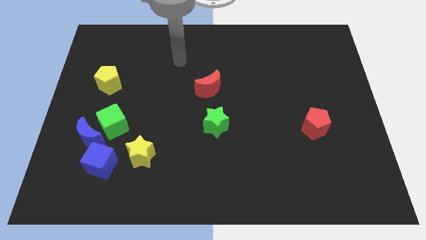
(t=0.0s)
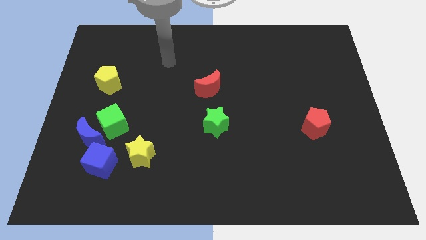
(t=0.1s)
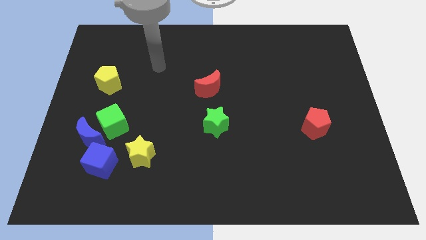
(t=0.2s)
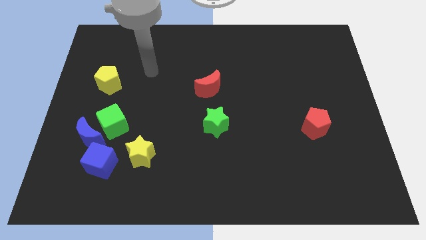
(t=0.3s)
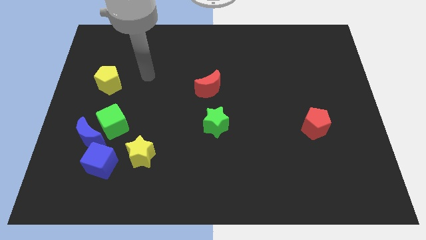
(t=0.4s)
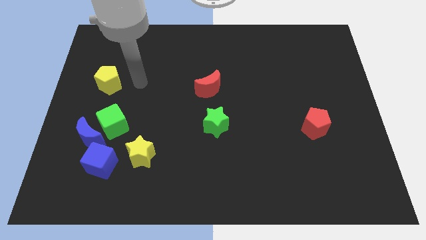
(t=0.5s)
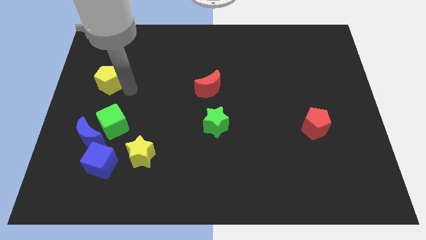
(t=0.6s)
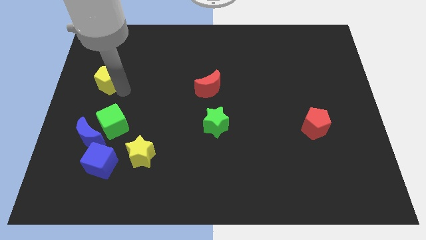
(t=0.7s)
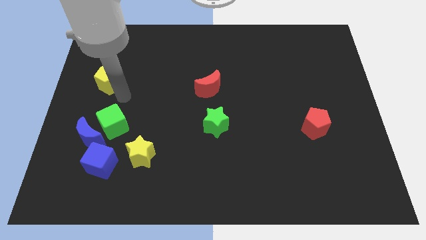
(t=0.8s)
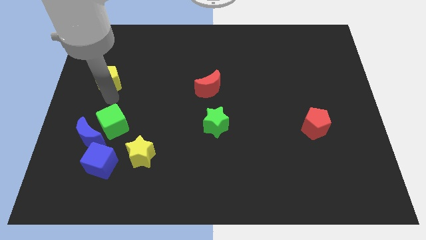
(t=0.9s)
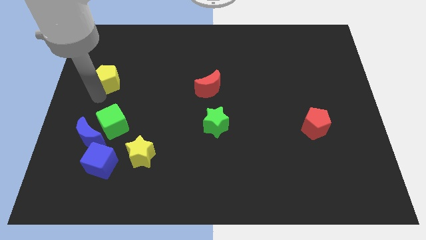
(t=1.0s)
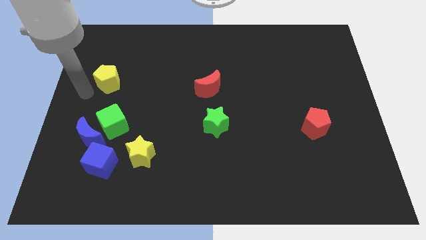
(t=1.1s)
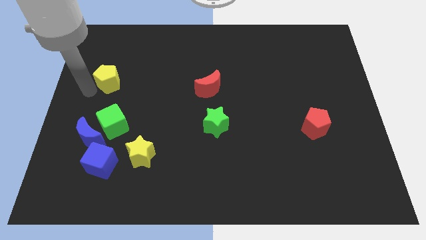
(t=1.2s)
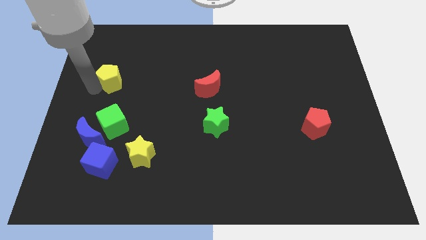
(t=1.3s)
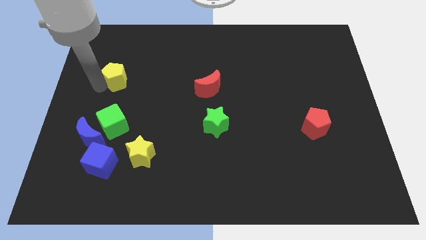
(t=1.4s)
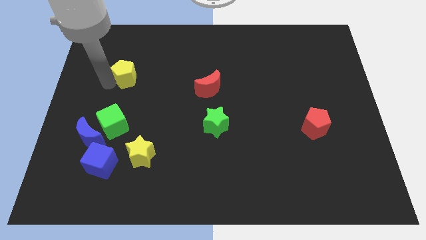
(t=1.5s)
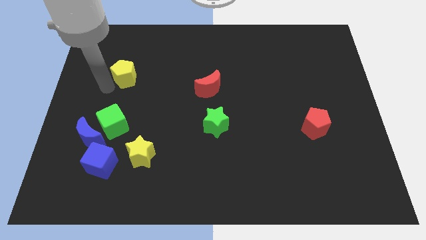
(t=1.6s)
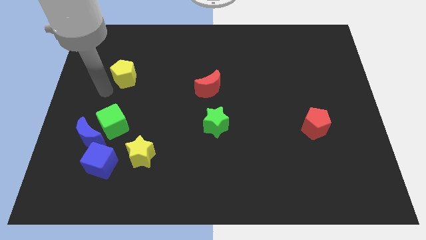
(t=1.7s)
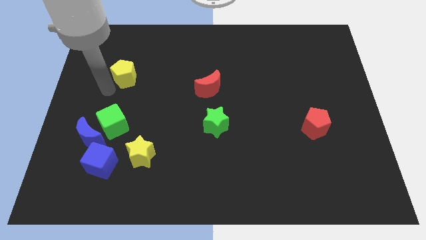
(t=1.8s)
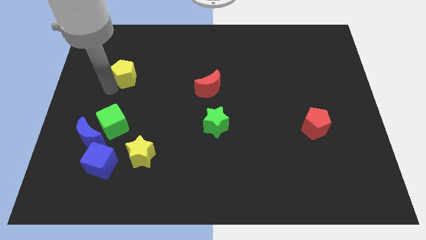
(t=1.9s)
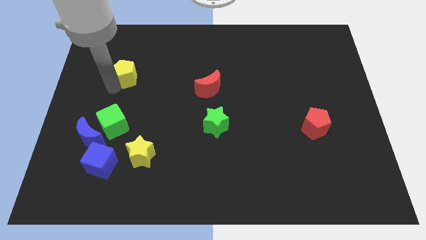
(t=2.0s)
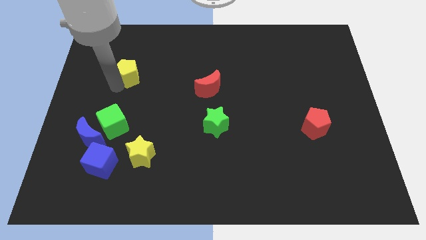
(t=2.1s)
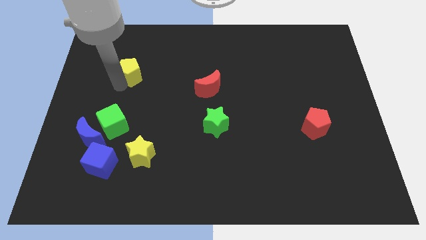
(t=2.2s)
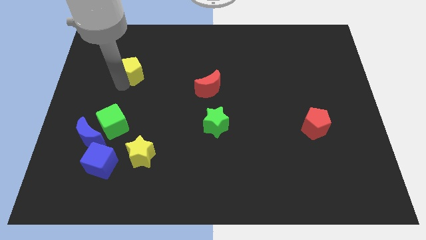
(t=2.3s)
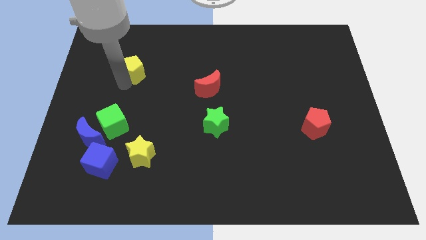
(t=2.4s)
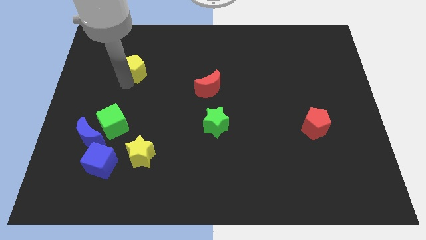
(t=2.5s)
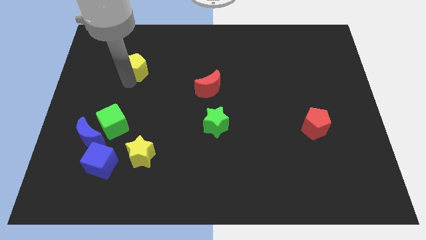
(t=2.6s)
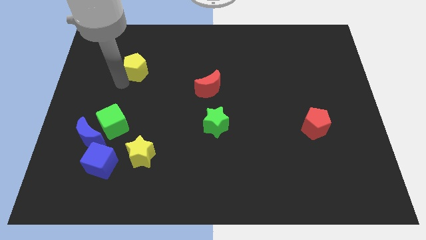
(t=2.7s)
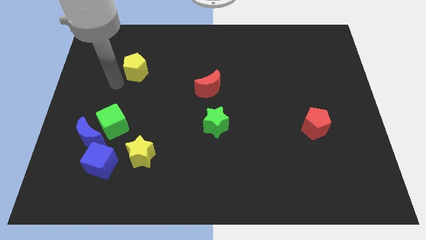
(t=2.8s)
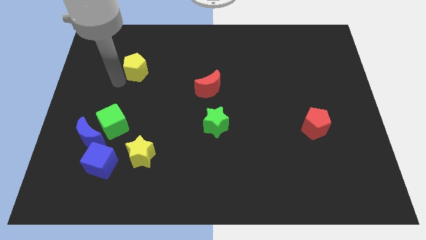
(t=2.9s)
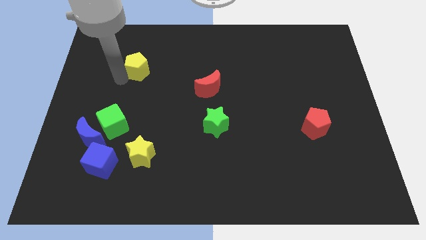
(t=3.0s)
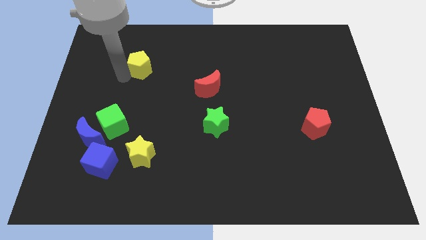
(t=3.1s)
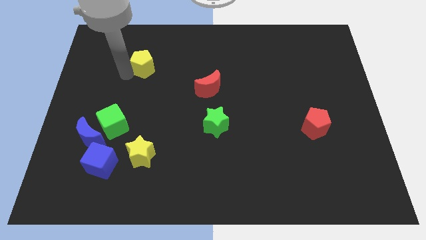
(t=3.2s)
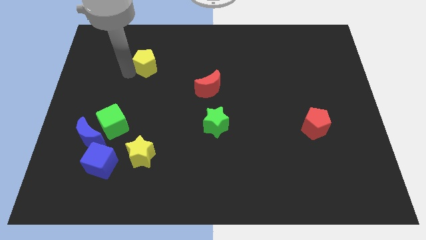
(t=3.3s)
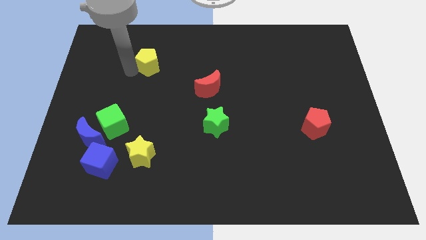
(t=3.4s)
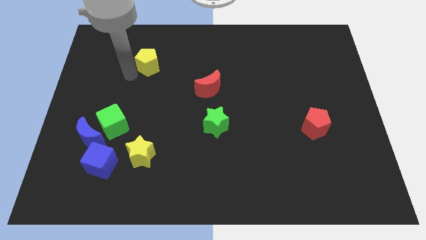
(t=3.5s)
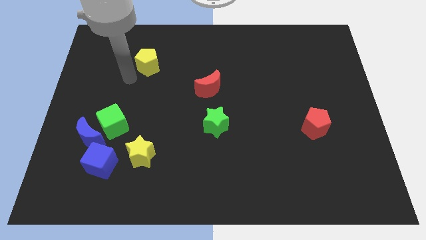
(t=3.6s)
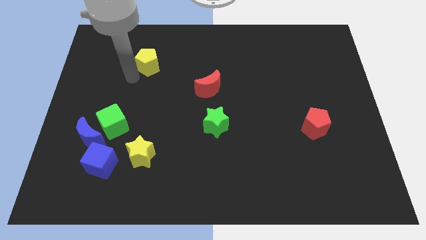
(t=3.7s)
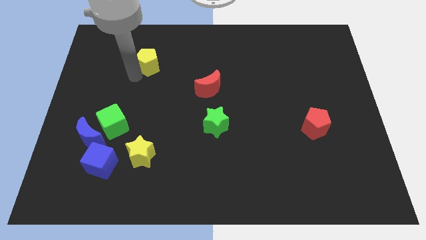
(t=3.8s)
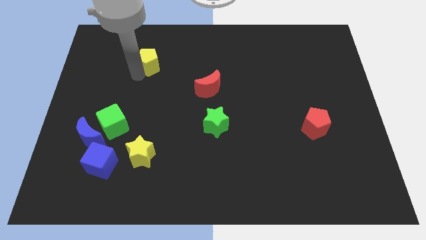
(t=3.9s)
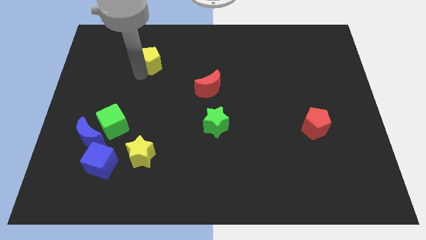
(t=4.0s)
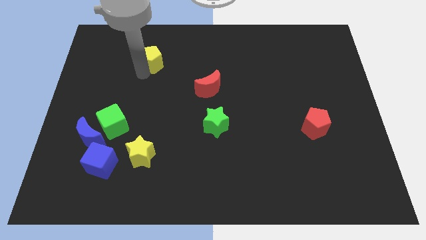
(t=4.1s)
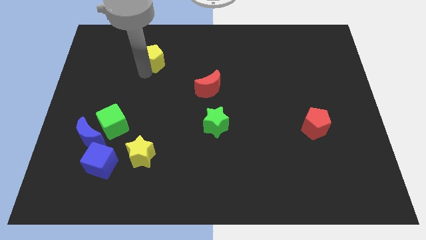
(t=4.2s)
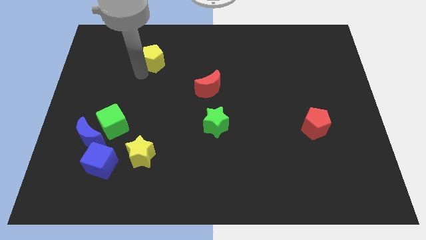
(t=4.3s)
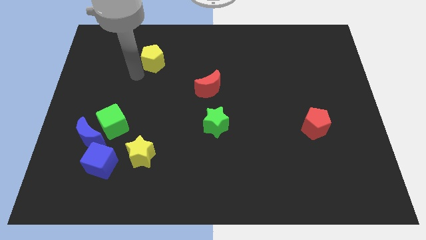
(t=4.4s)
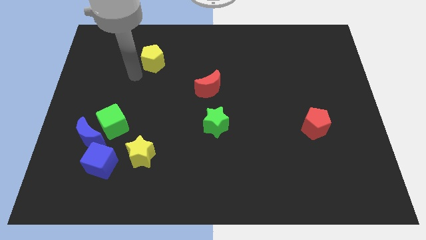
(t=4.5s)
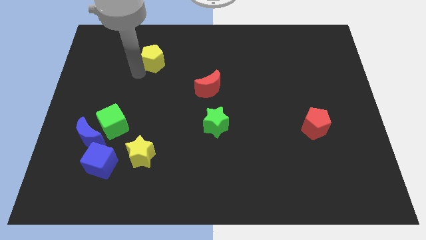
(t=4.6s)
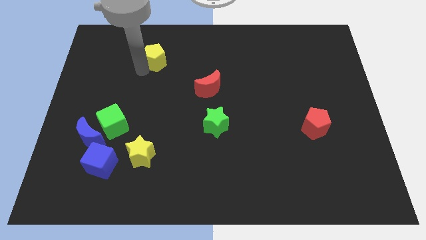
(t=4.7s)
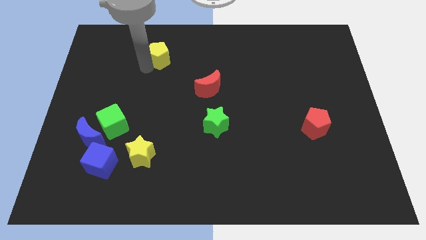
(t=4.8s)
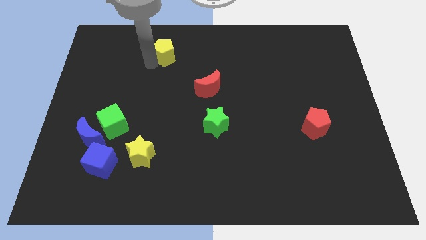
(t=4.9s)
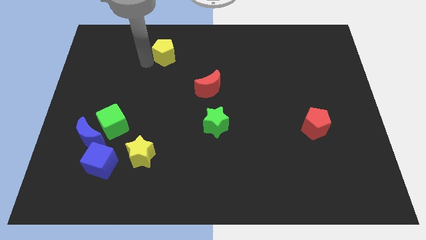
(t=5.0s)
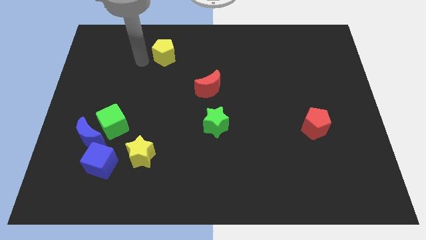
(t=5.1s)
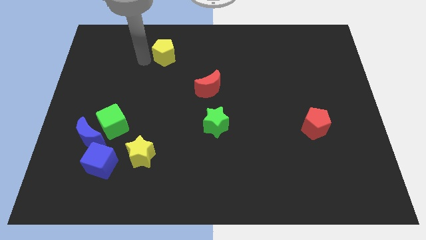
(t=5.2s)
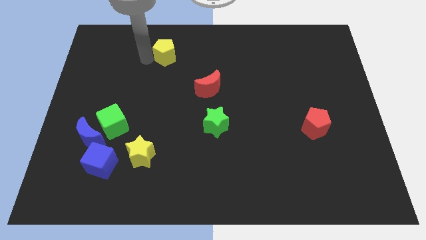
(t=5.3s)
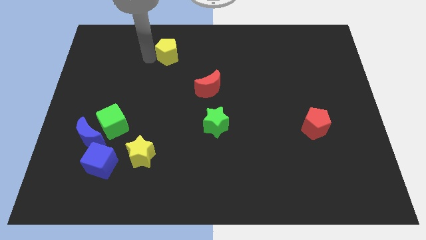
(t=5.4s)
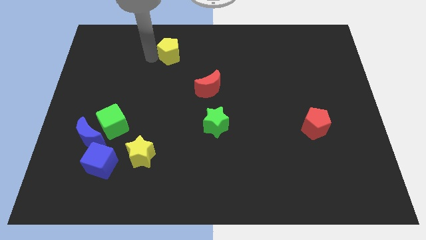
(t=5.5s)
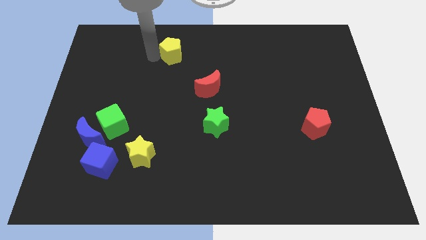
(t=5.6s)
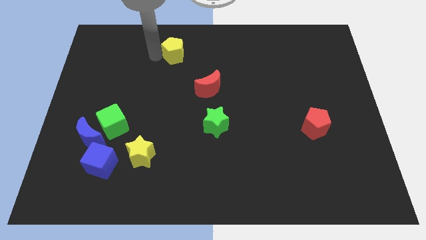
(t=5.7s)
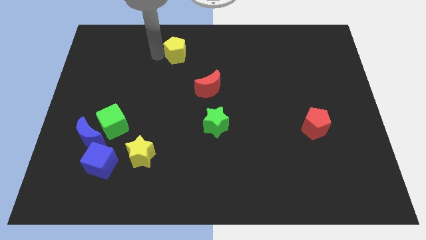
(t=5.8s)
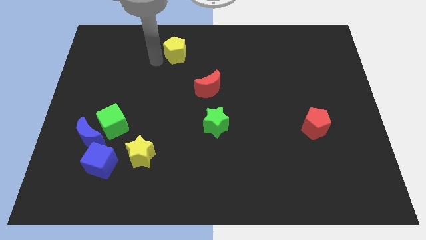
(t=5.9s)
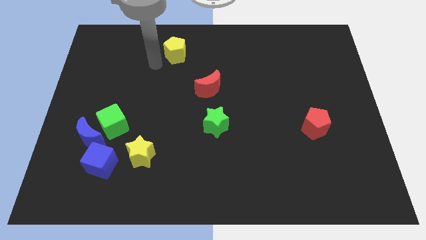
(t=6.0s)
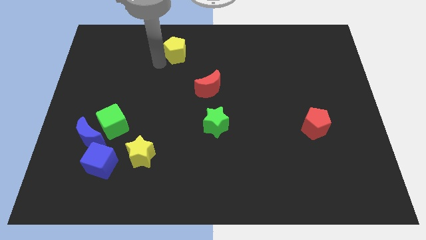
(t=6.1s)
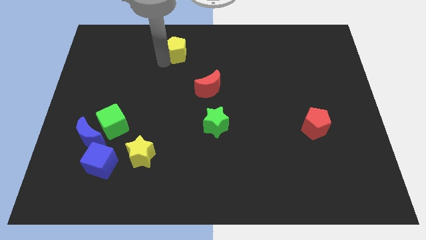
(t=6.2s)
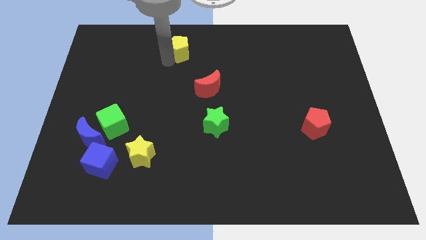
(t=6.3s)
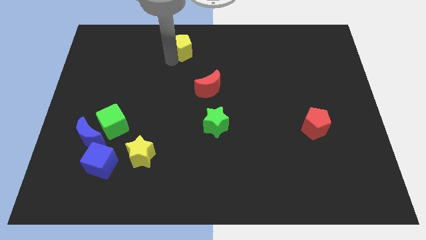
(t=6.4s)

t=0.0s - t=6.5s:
slide the yellow pentagon to the top side
